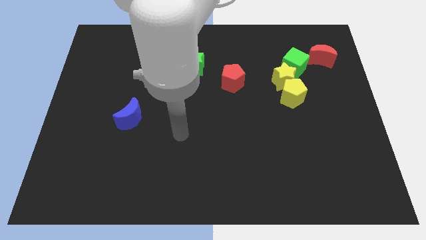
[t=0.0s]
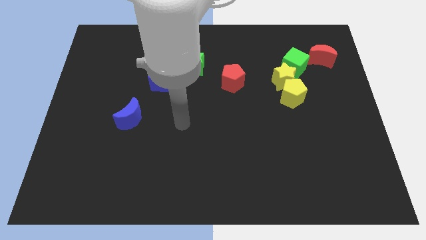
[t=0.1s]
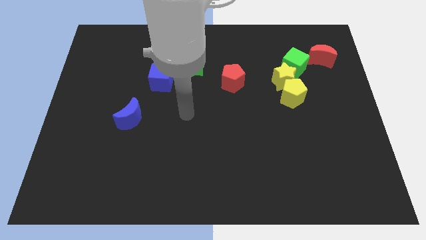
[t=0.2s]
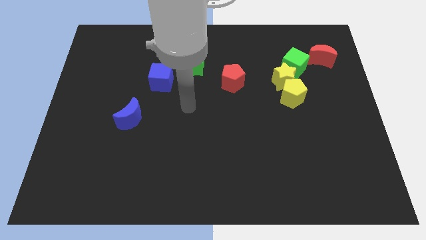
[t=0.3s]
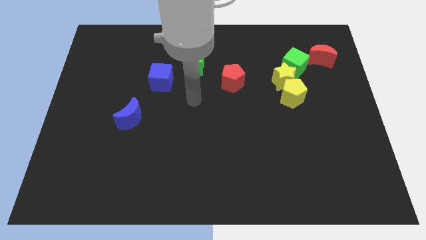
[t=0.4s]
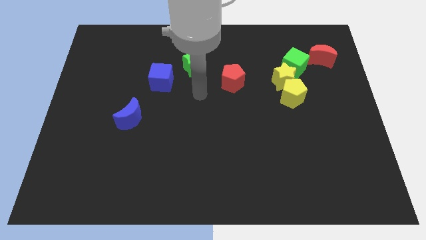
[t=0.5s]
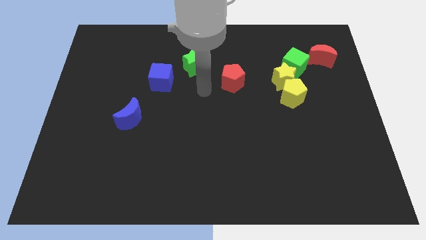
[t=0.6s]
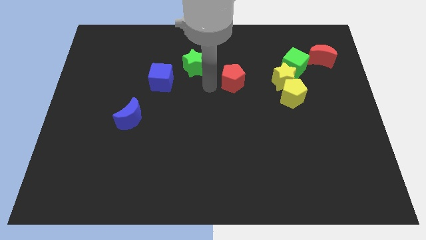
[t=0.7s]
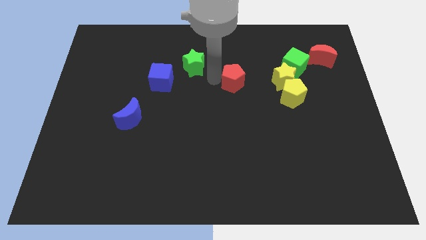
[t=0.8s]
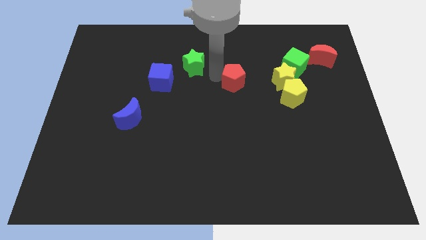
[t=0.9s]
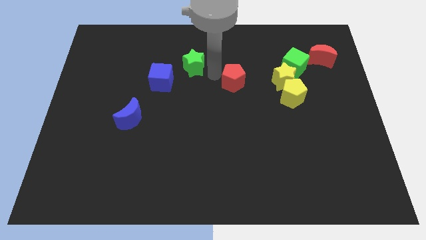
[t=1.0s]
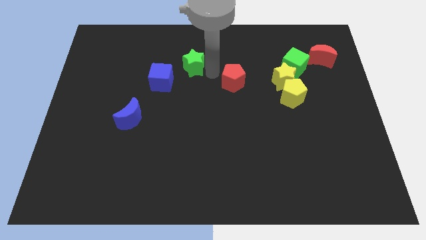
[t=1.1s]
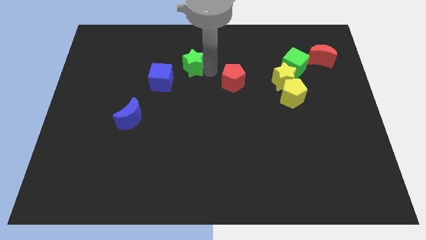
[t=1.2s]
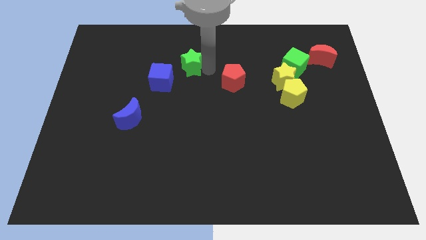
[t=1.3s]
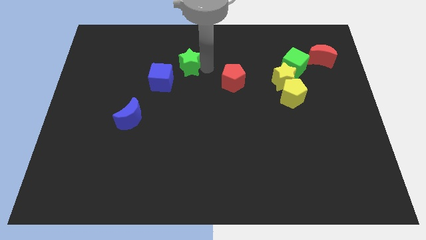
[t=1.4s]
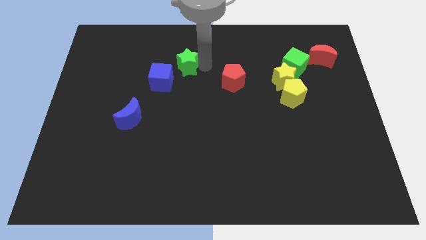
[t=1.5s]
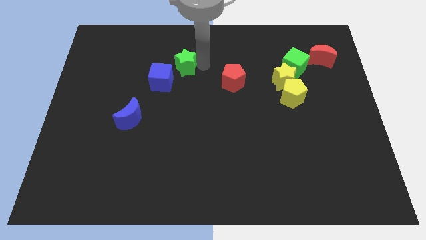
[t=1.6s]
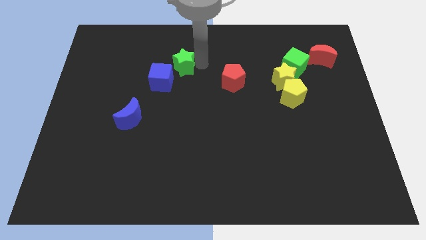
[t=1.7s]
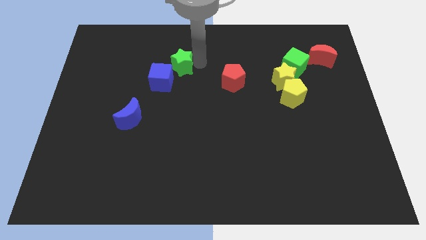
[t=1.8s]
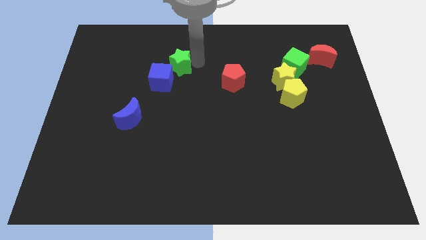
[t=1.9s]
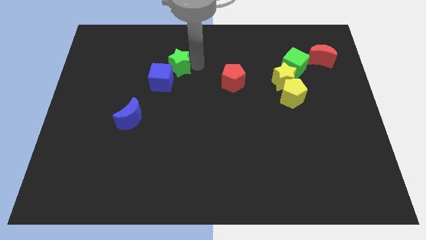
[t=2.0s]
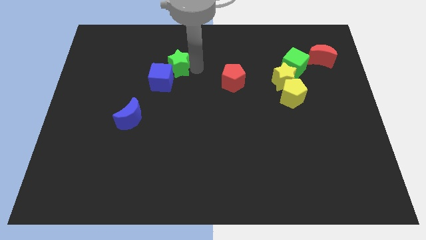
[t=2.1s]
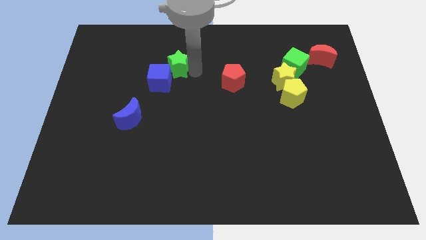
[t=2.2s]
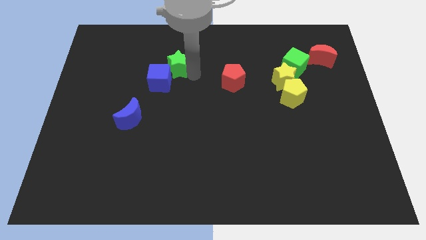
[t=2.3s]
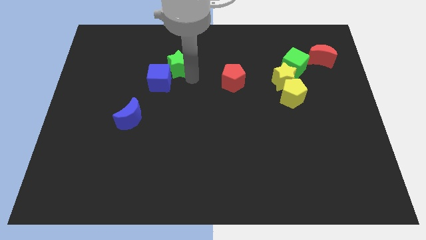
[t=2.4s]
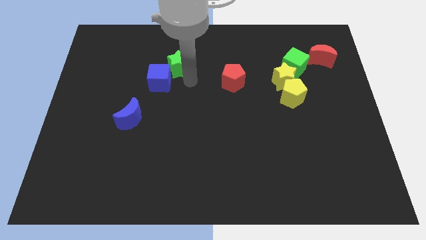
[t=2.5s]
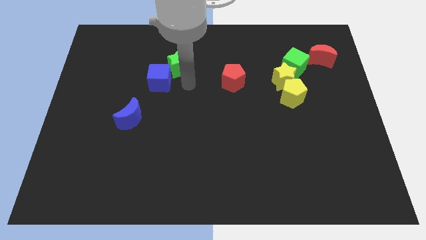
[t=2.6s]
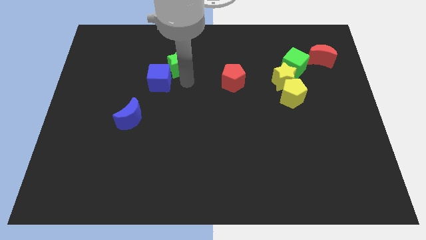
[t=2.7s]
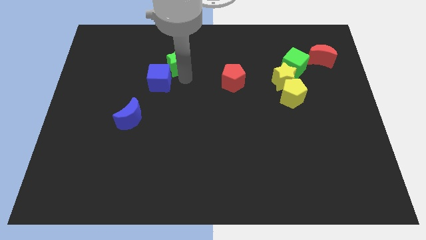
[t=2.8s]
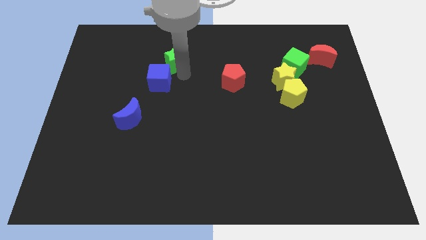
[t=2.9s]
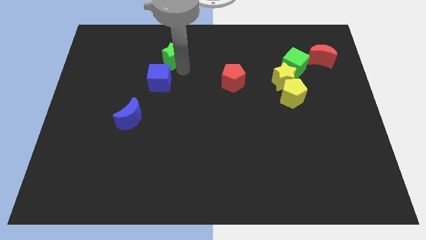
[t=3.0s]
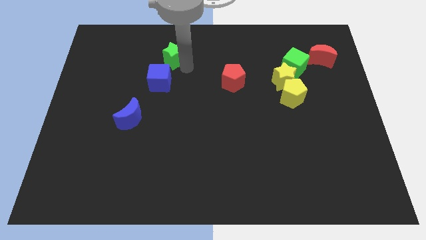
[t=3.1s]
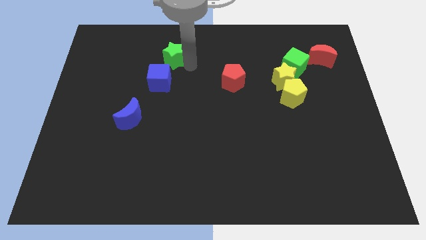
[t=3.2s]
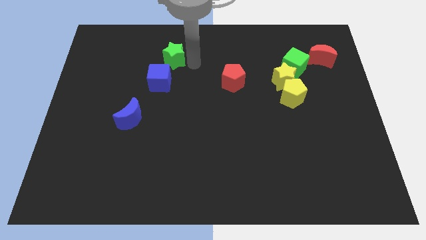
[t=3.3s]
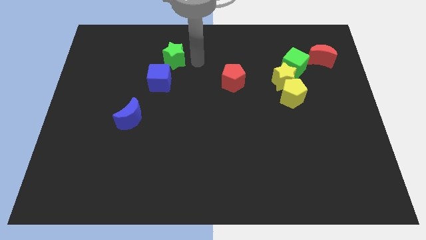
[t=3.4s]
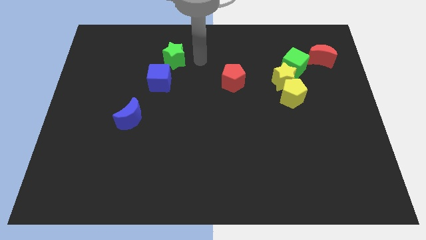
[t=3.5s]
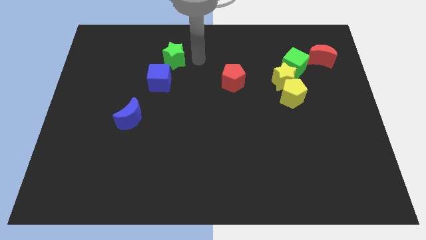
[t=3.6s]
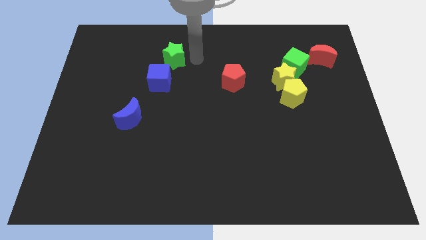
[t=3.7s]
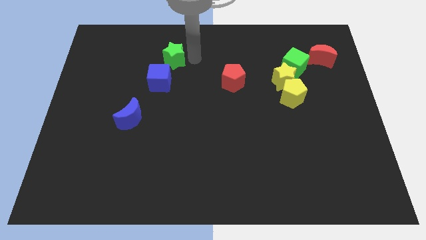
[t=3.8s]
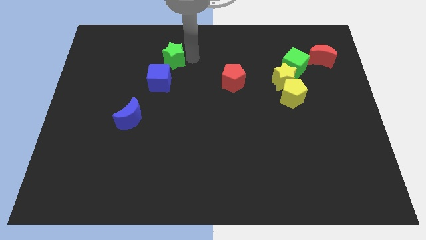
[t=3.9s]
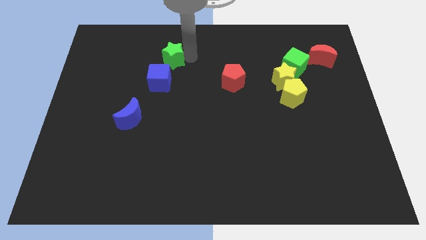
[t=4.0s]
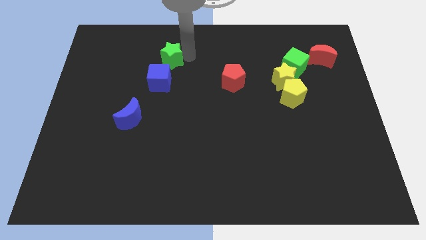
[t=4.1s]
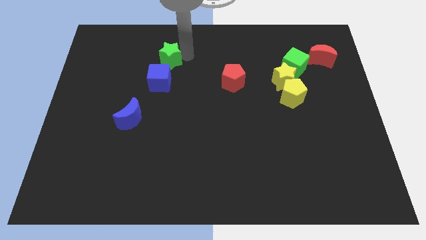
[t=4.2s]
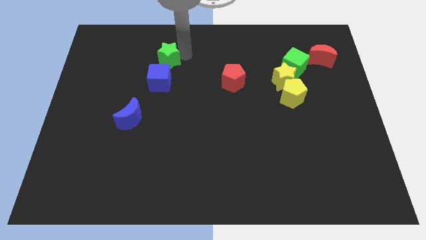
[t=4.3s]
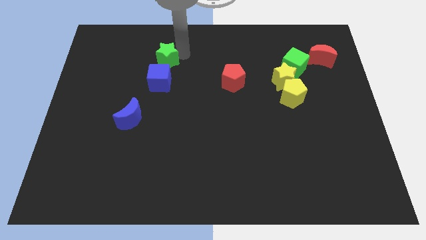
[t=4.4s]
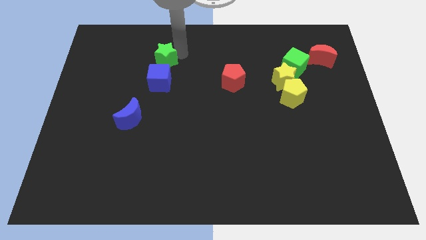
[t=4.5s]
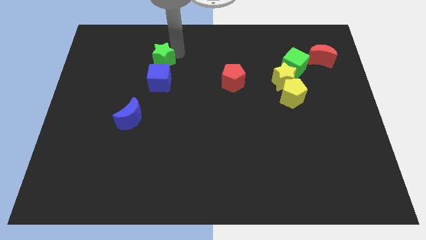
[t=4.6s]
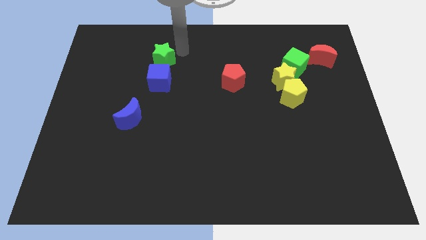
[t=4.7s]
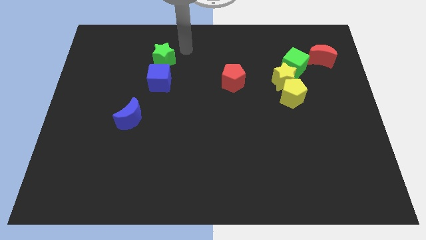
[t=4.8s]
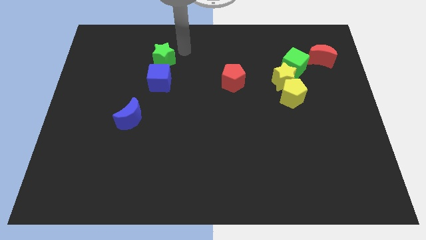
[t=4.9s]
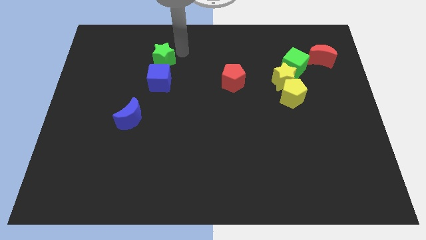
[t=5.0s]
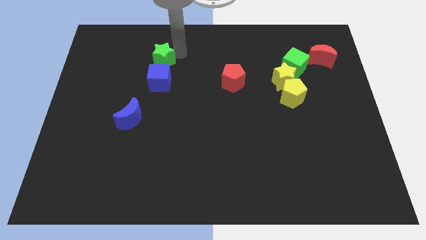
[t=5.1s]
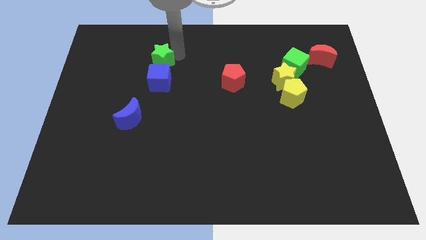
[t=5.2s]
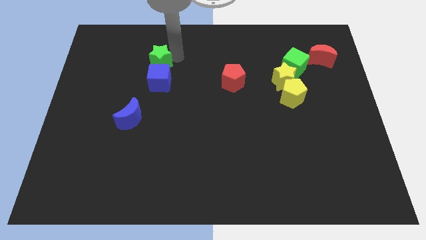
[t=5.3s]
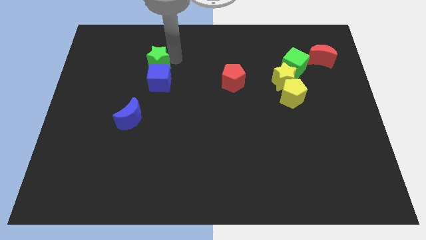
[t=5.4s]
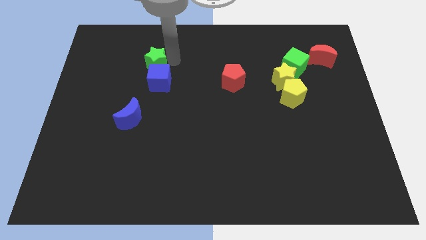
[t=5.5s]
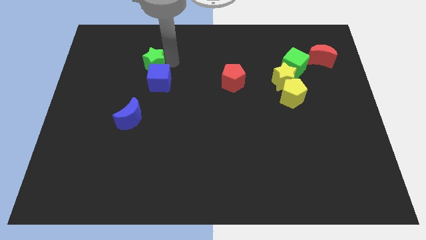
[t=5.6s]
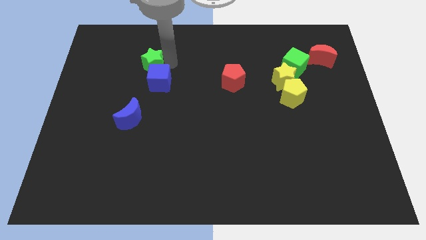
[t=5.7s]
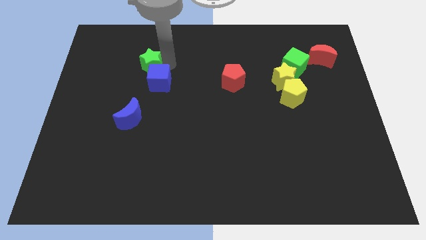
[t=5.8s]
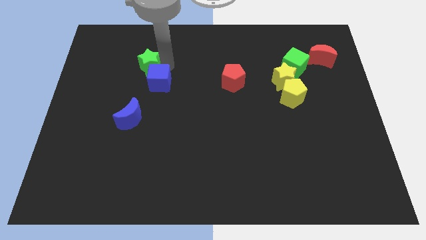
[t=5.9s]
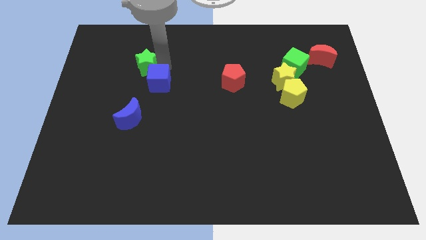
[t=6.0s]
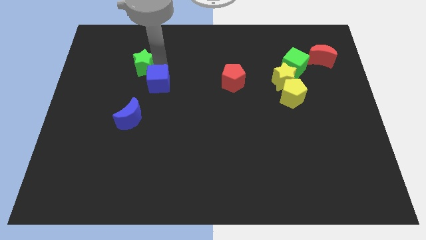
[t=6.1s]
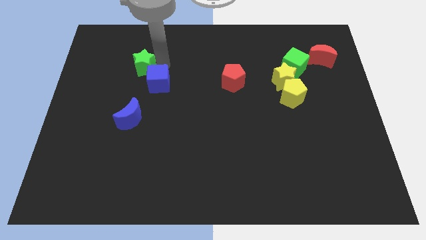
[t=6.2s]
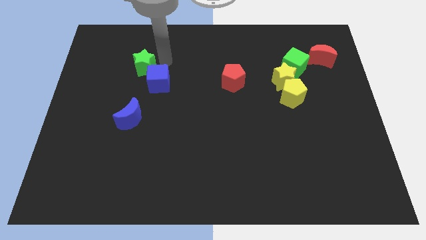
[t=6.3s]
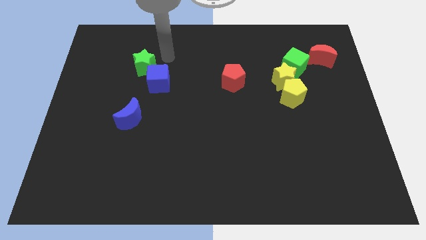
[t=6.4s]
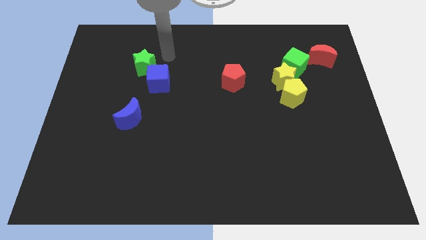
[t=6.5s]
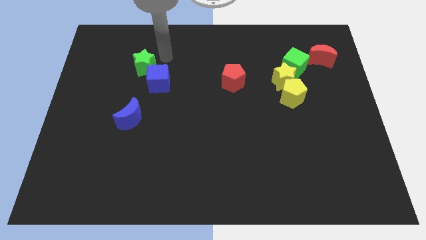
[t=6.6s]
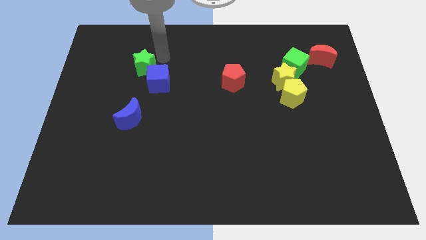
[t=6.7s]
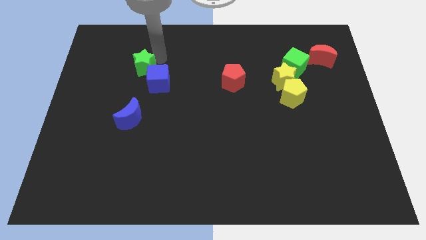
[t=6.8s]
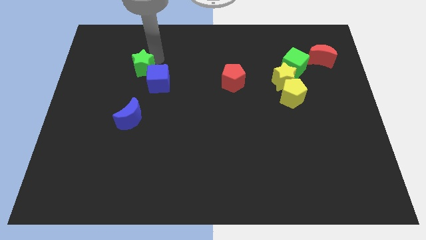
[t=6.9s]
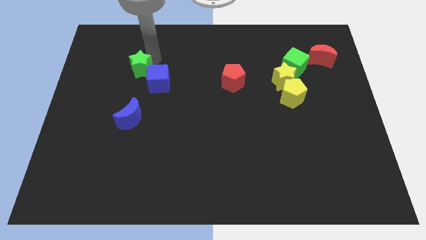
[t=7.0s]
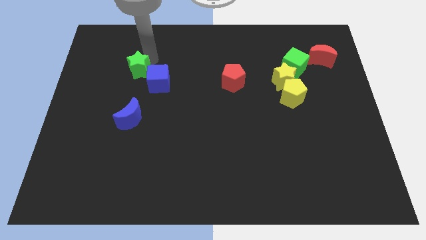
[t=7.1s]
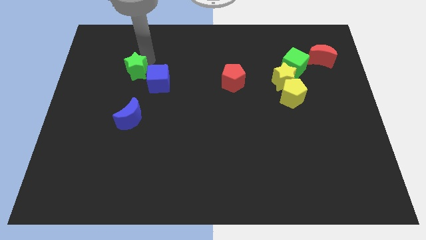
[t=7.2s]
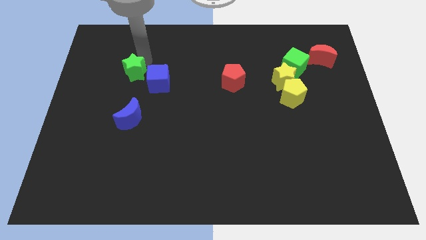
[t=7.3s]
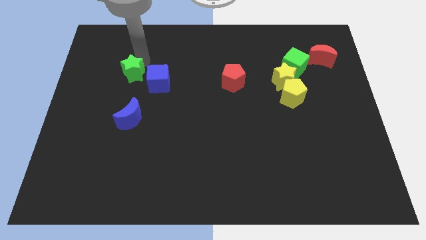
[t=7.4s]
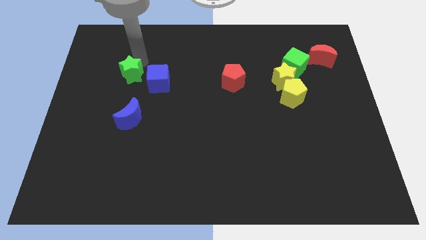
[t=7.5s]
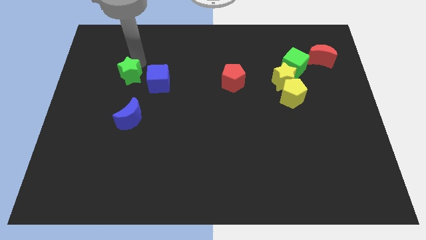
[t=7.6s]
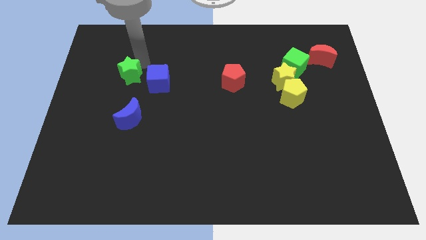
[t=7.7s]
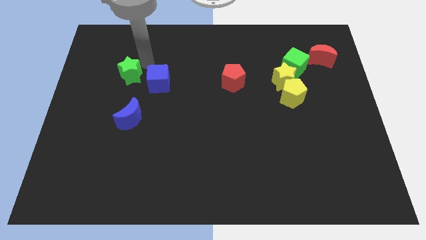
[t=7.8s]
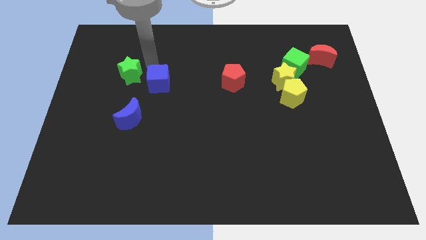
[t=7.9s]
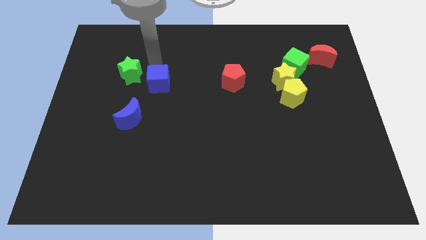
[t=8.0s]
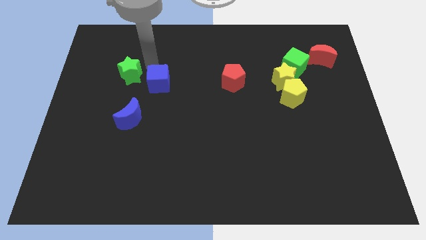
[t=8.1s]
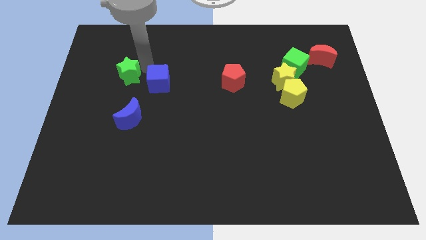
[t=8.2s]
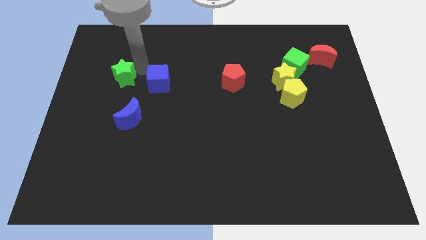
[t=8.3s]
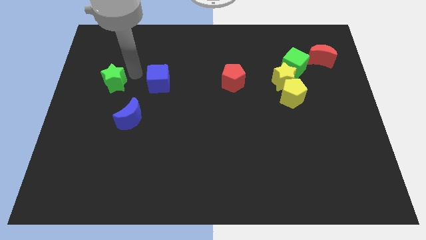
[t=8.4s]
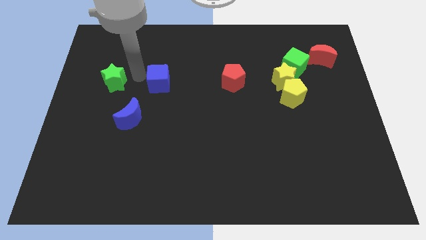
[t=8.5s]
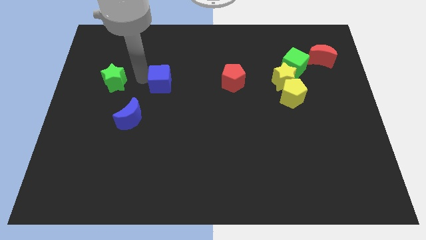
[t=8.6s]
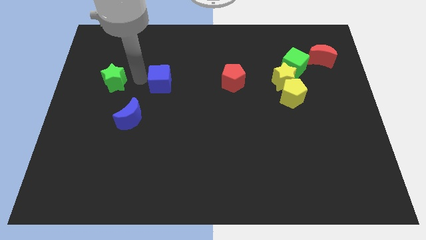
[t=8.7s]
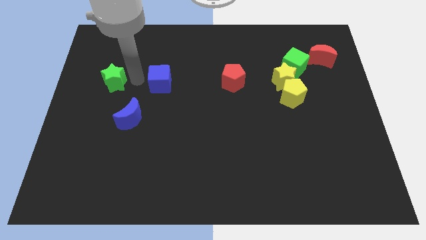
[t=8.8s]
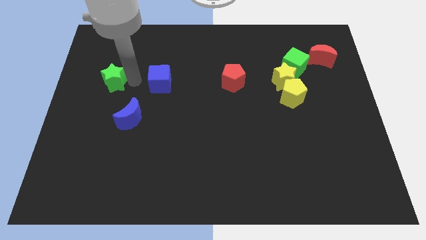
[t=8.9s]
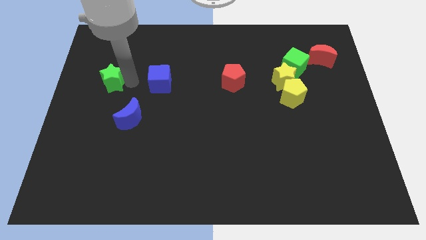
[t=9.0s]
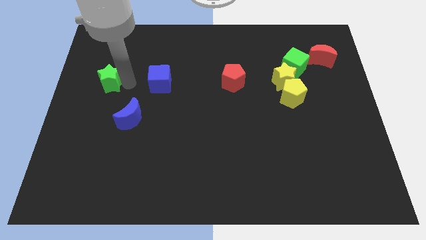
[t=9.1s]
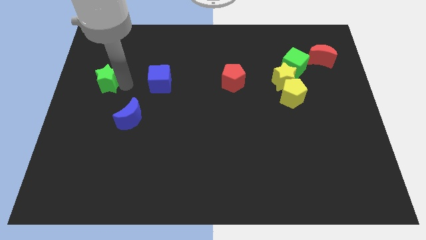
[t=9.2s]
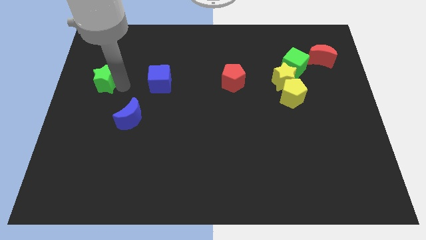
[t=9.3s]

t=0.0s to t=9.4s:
move the green star to the center left
